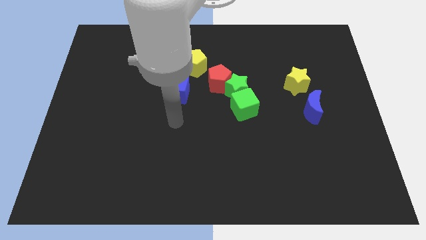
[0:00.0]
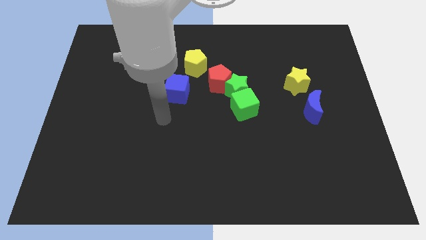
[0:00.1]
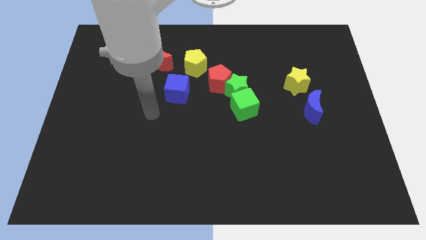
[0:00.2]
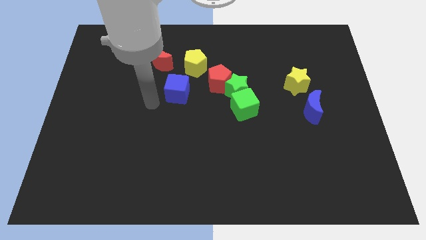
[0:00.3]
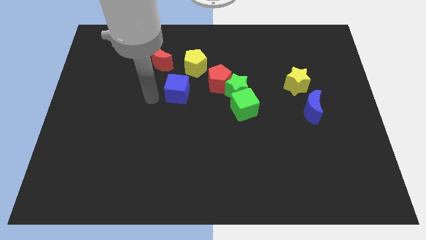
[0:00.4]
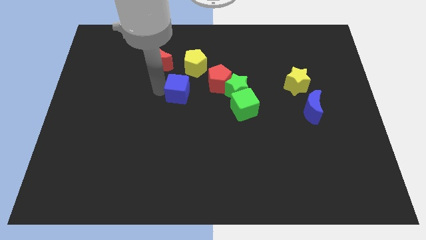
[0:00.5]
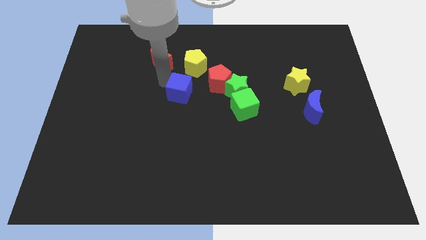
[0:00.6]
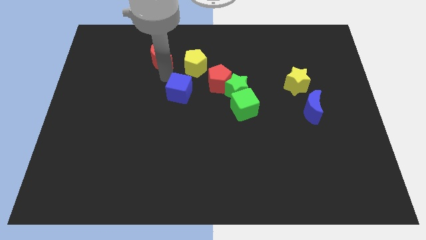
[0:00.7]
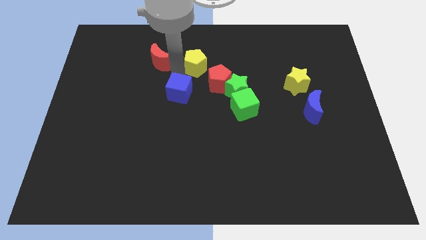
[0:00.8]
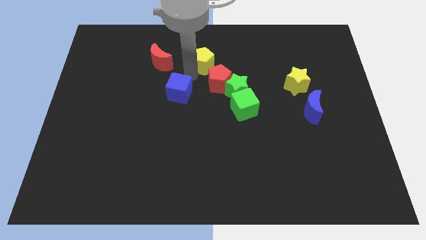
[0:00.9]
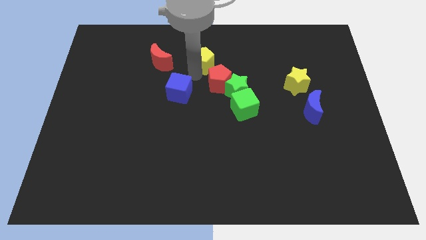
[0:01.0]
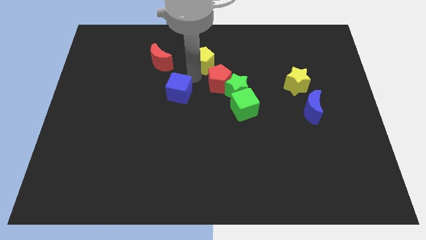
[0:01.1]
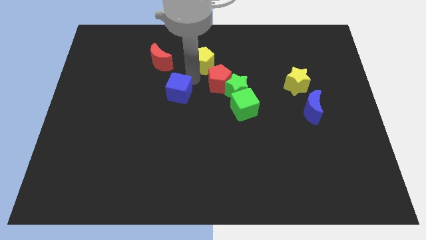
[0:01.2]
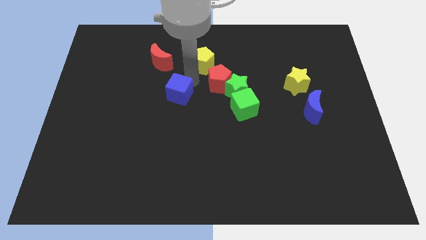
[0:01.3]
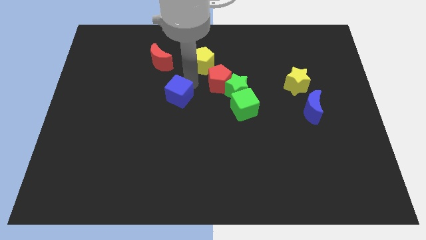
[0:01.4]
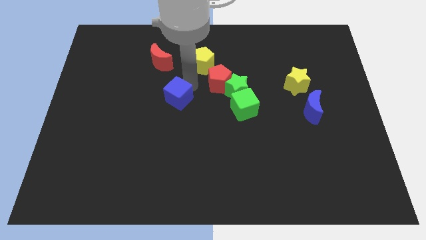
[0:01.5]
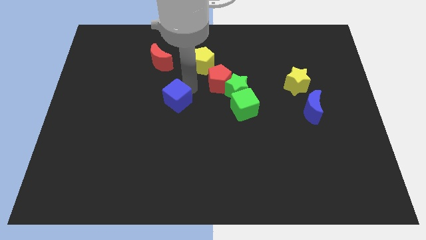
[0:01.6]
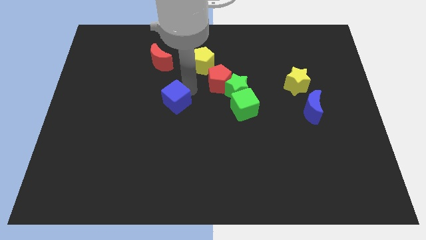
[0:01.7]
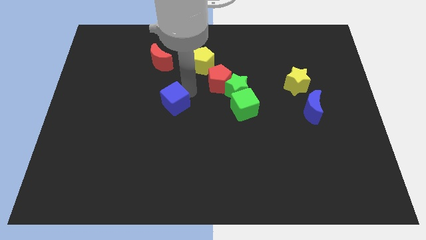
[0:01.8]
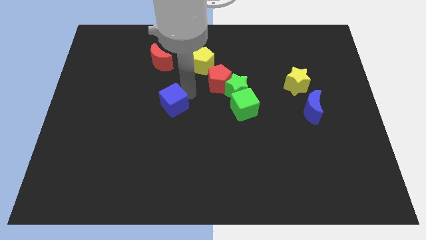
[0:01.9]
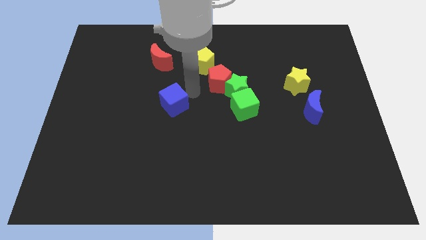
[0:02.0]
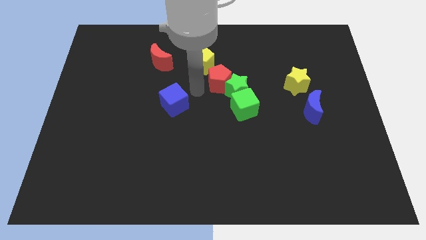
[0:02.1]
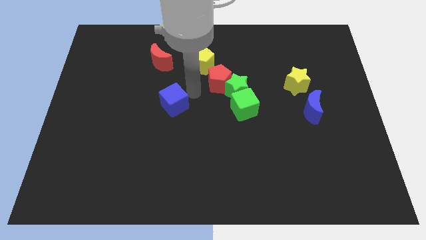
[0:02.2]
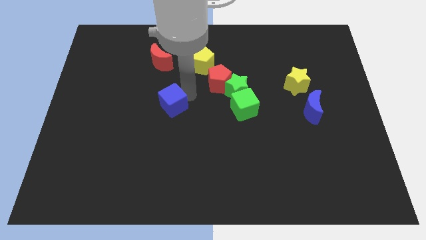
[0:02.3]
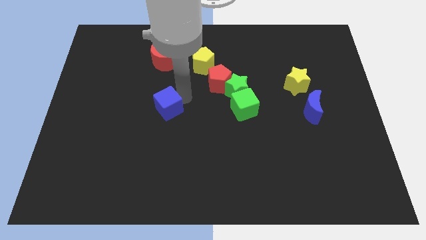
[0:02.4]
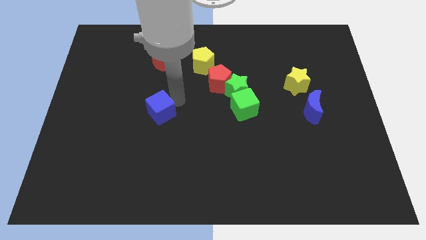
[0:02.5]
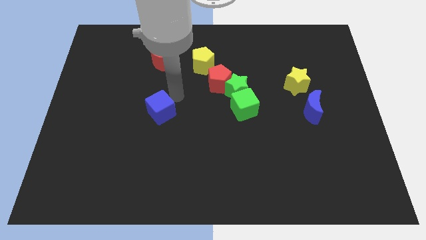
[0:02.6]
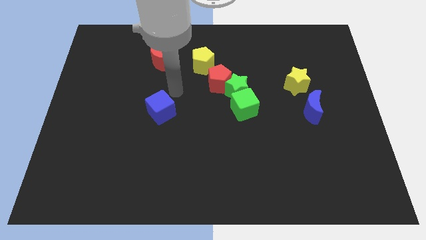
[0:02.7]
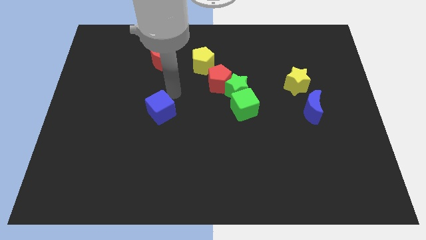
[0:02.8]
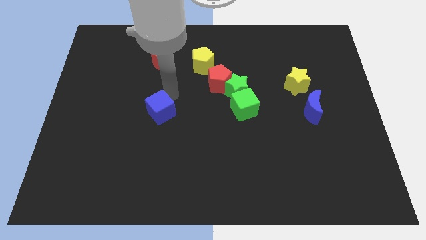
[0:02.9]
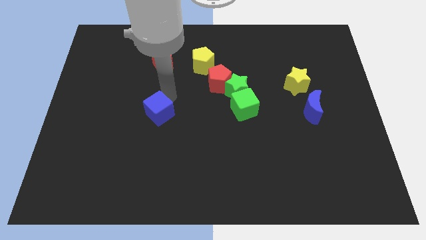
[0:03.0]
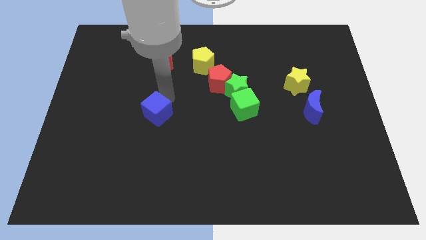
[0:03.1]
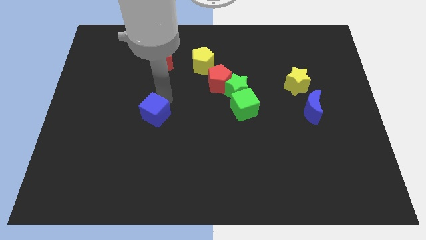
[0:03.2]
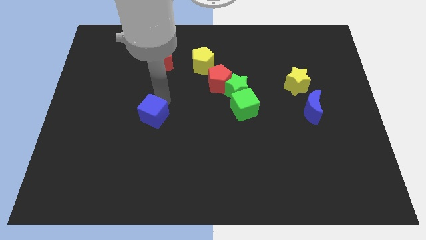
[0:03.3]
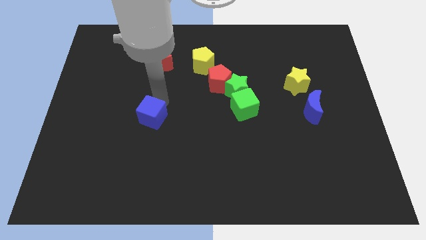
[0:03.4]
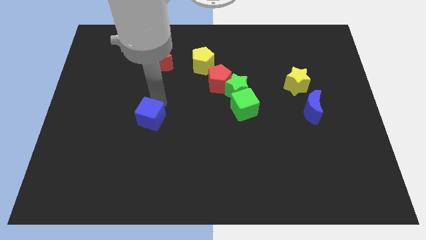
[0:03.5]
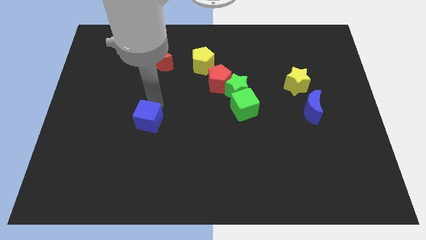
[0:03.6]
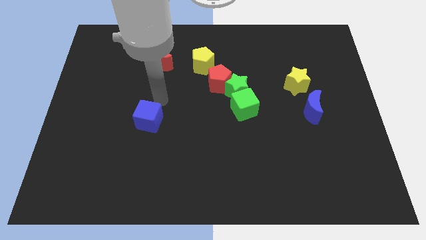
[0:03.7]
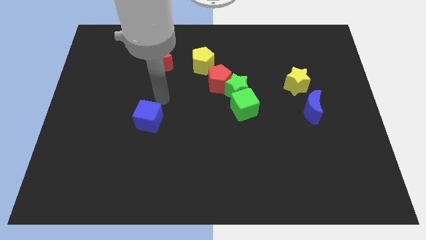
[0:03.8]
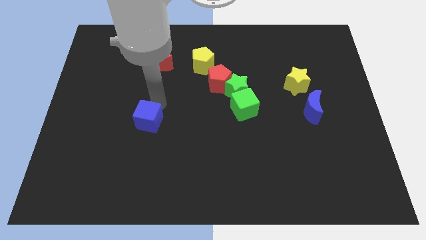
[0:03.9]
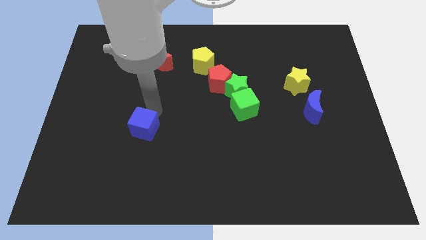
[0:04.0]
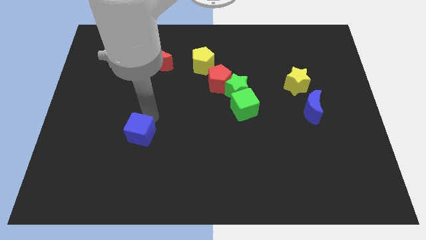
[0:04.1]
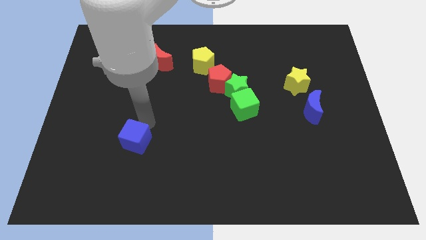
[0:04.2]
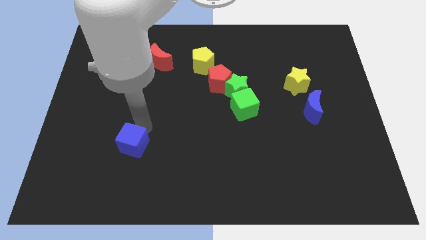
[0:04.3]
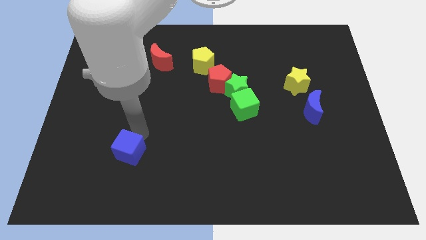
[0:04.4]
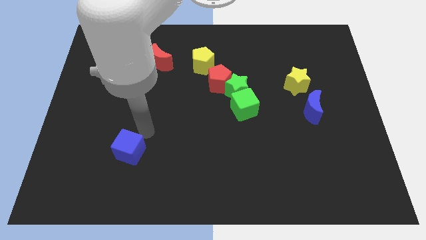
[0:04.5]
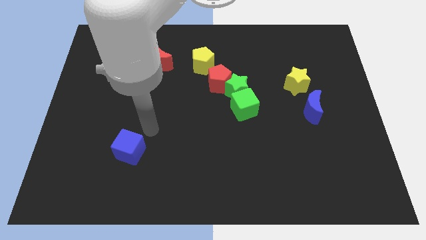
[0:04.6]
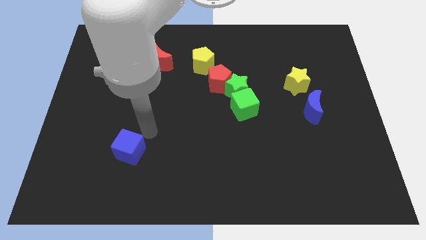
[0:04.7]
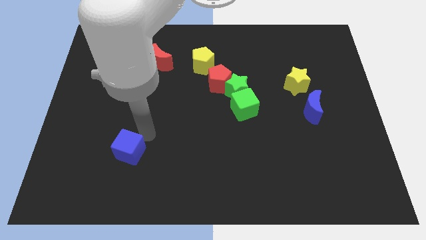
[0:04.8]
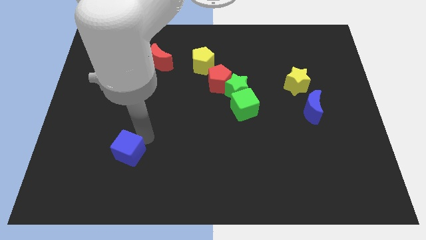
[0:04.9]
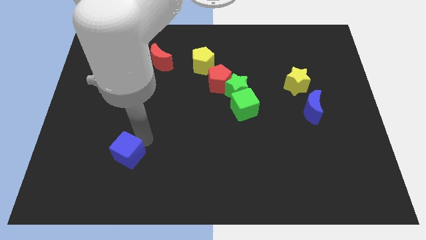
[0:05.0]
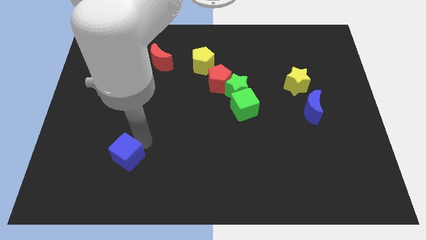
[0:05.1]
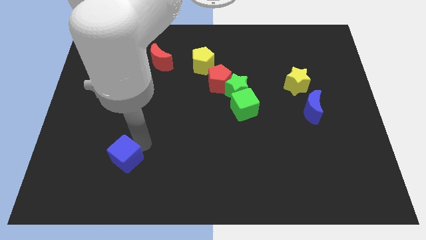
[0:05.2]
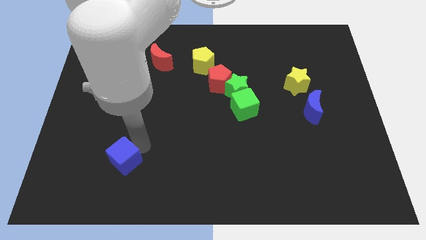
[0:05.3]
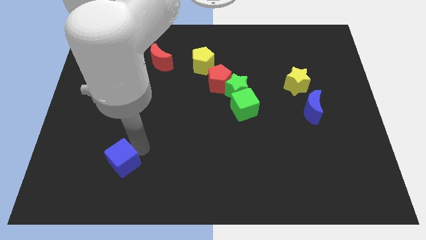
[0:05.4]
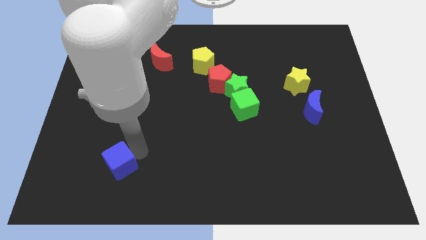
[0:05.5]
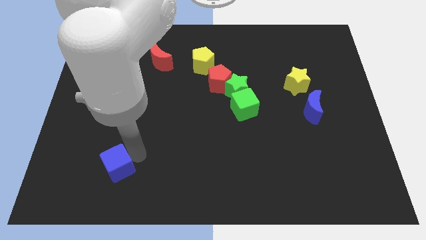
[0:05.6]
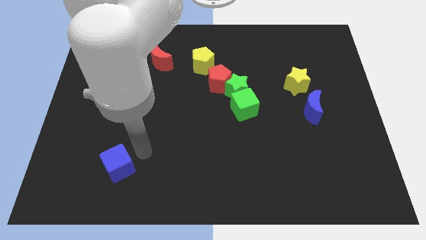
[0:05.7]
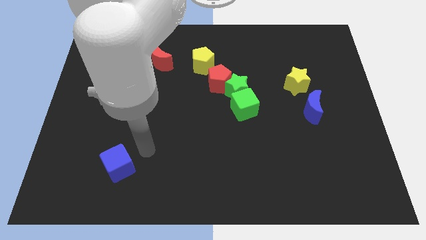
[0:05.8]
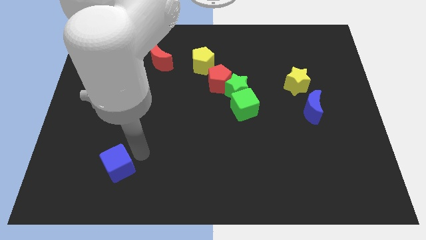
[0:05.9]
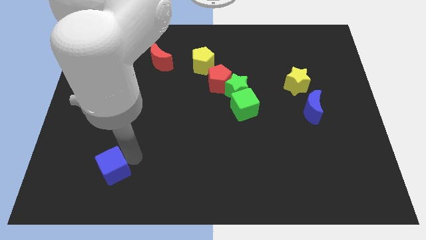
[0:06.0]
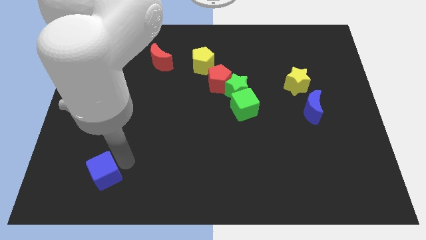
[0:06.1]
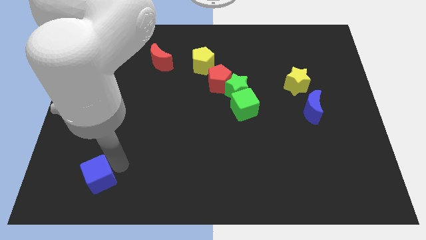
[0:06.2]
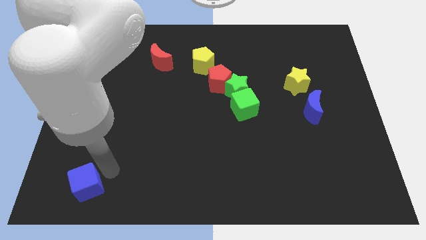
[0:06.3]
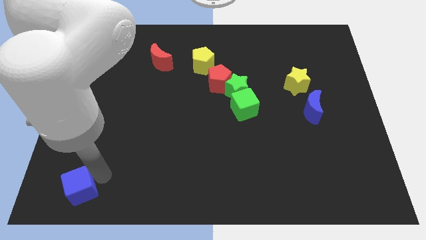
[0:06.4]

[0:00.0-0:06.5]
push the blue cube to the lower left corner
